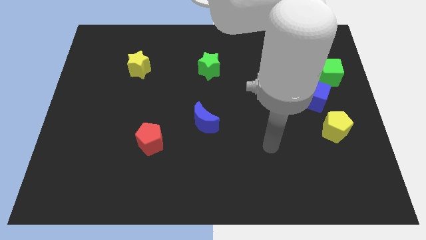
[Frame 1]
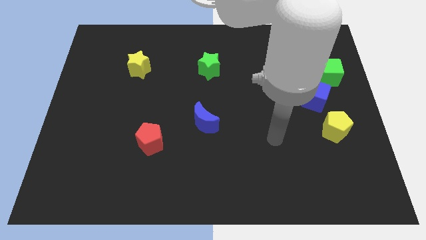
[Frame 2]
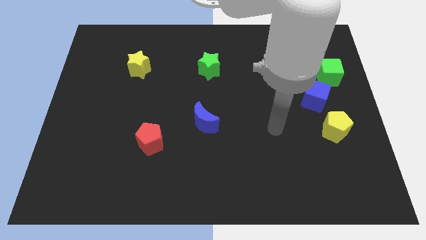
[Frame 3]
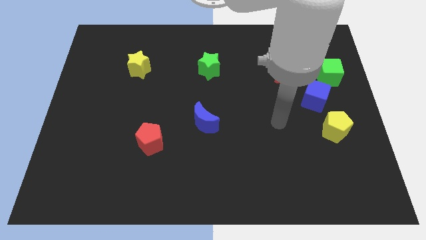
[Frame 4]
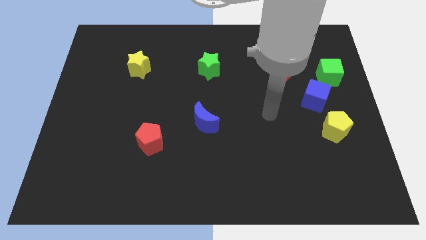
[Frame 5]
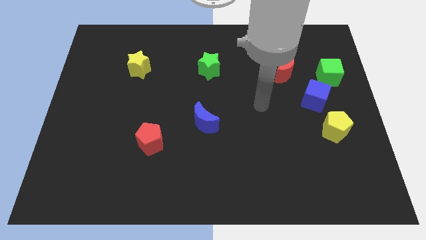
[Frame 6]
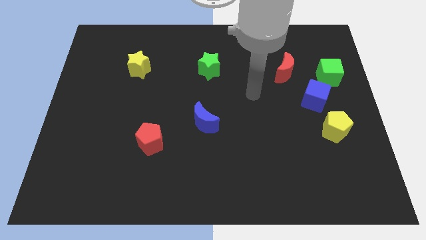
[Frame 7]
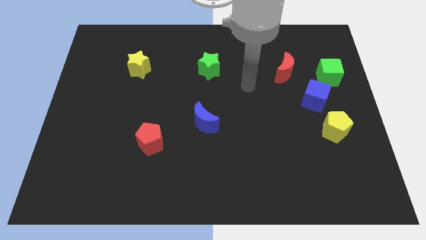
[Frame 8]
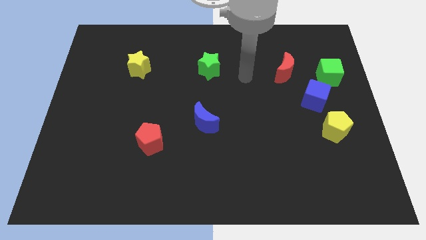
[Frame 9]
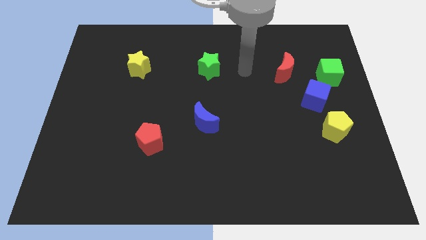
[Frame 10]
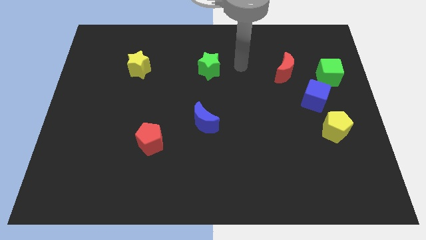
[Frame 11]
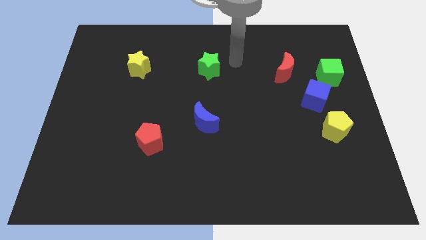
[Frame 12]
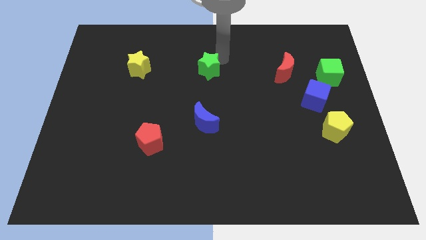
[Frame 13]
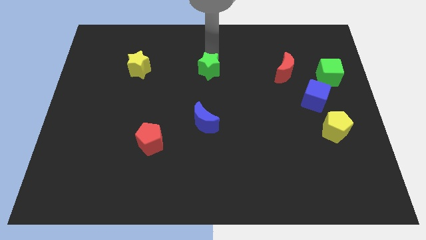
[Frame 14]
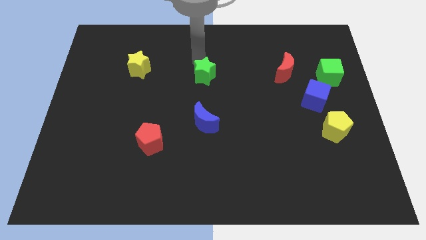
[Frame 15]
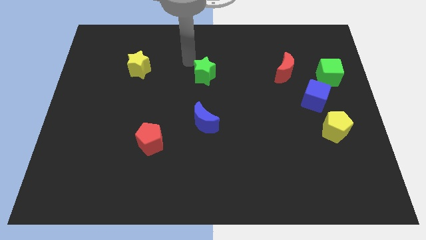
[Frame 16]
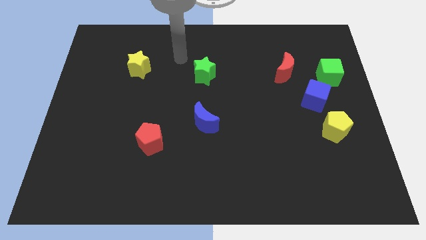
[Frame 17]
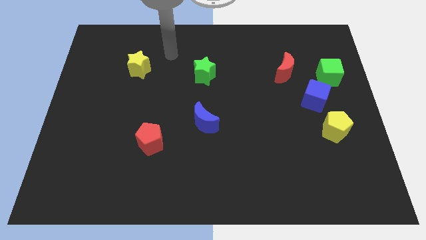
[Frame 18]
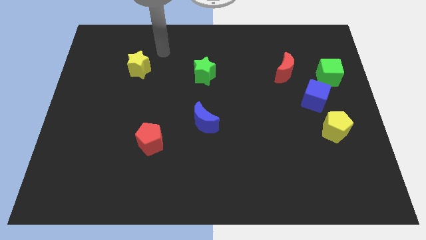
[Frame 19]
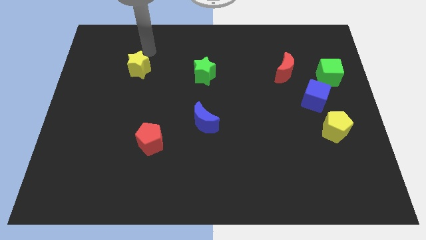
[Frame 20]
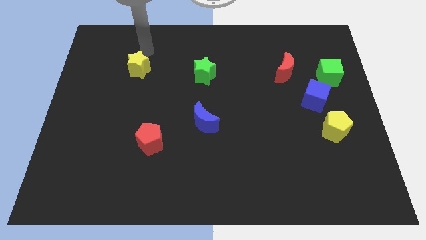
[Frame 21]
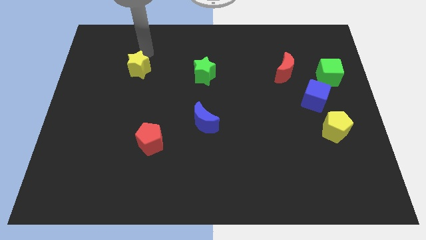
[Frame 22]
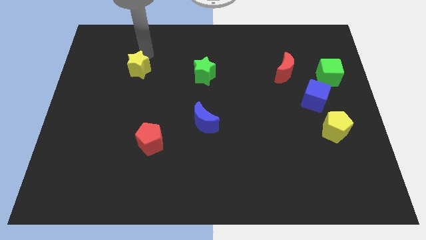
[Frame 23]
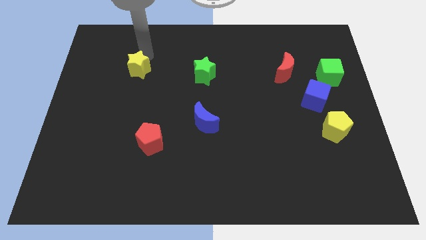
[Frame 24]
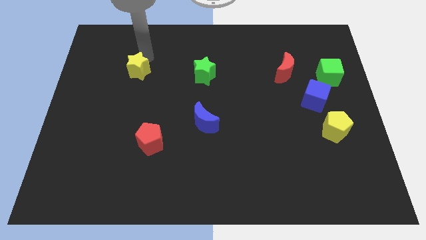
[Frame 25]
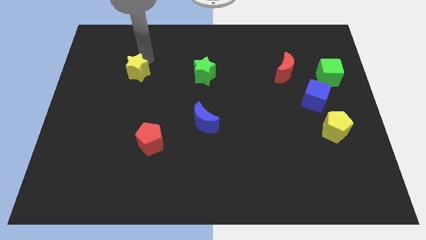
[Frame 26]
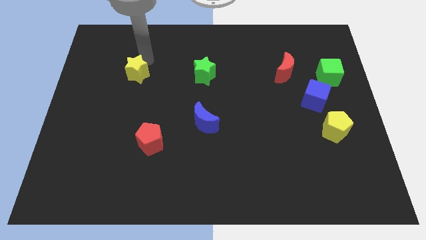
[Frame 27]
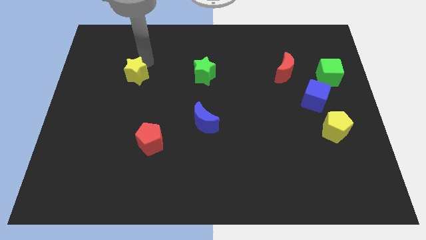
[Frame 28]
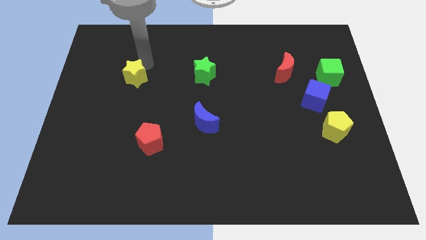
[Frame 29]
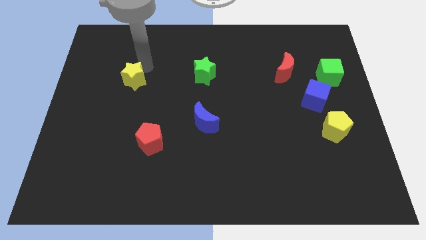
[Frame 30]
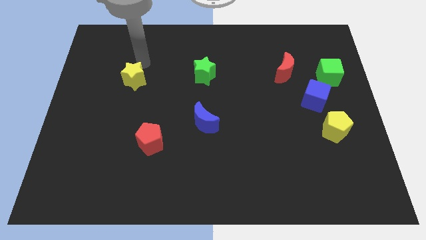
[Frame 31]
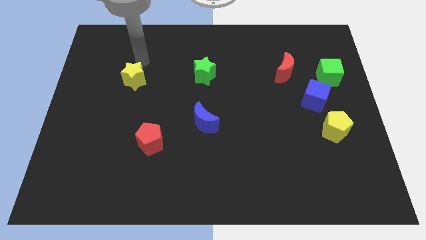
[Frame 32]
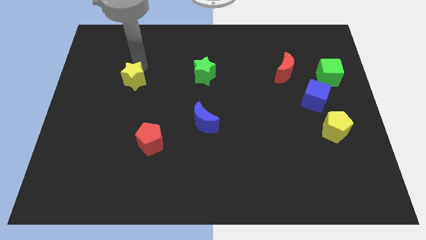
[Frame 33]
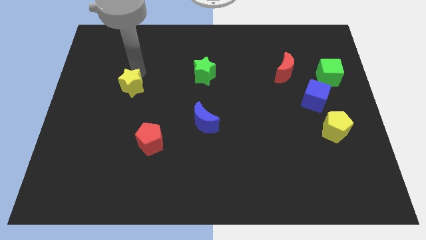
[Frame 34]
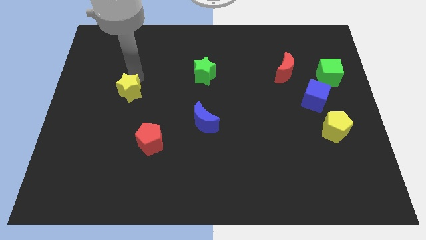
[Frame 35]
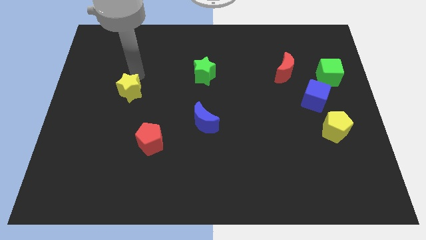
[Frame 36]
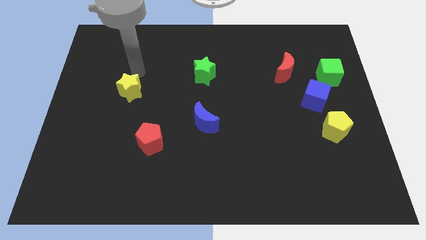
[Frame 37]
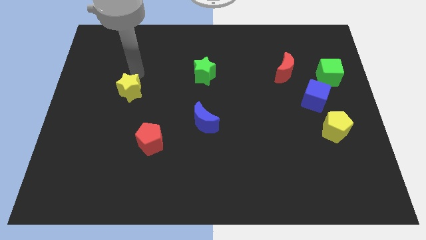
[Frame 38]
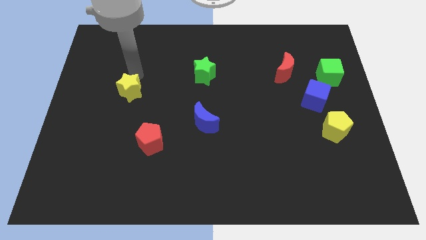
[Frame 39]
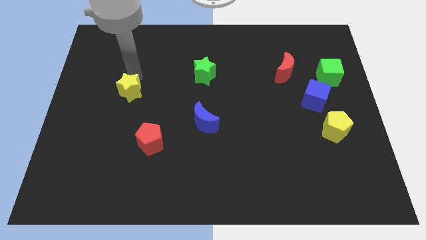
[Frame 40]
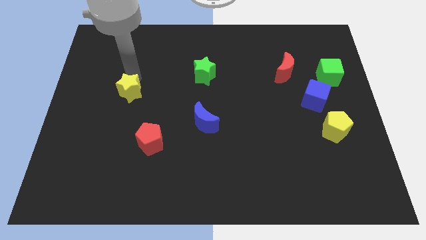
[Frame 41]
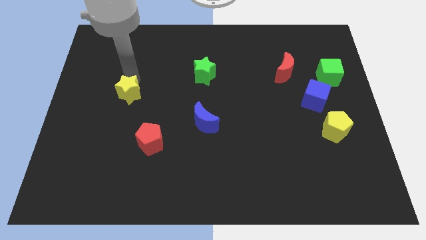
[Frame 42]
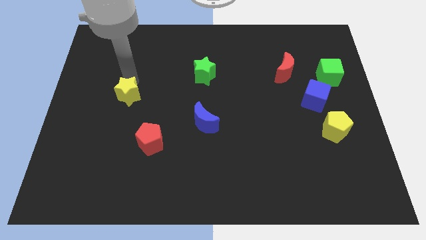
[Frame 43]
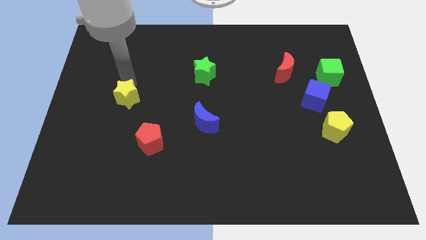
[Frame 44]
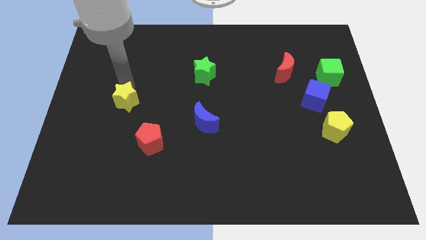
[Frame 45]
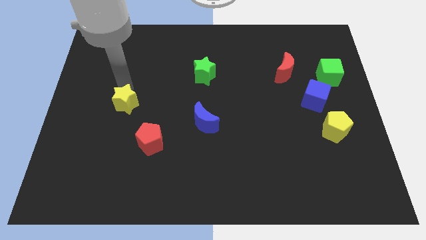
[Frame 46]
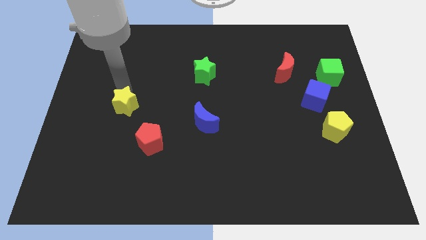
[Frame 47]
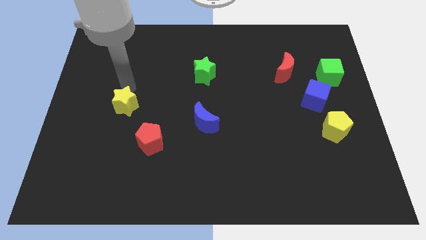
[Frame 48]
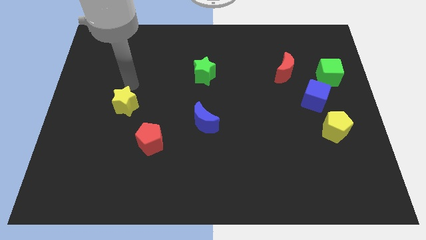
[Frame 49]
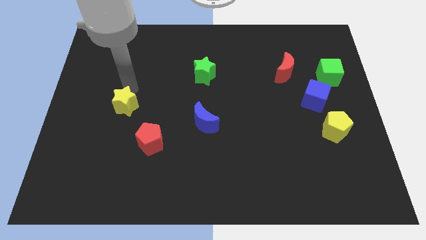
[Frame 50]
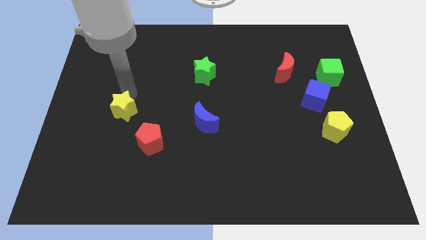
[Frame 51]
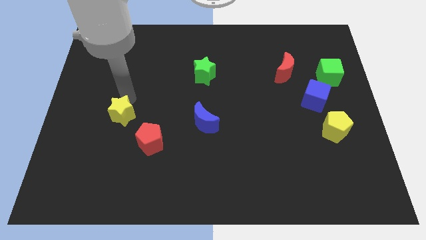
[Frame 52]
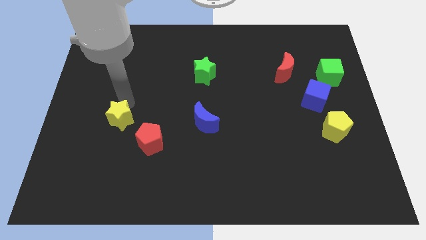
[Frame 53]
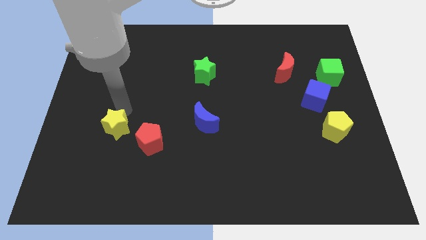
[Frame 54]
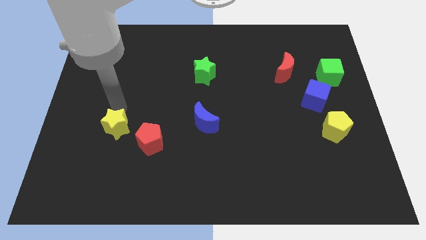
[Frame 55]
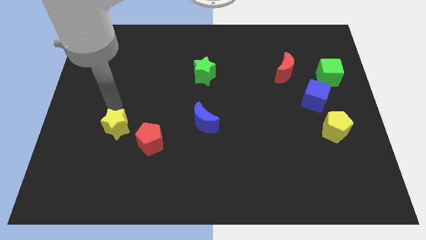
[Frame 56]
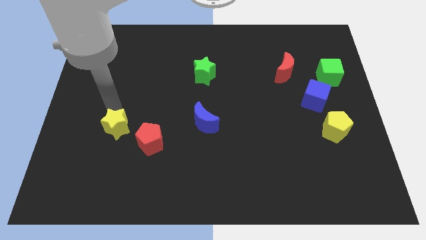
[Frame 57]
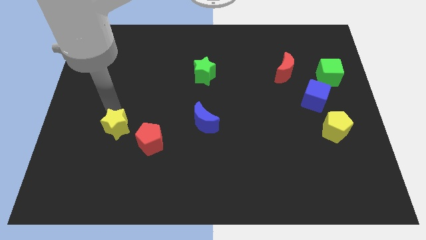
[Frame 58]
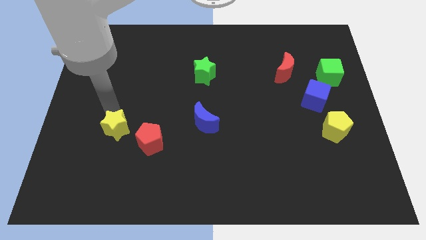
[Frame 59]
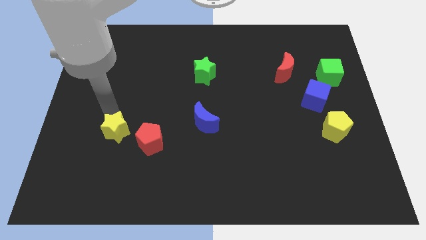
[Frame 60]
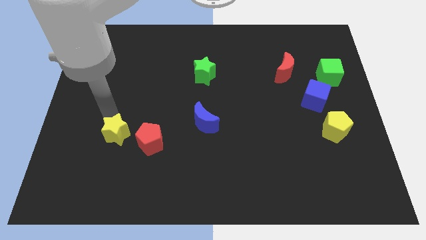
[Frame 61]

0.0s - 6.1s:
slide the yellow star downwards

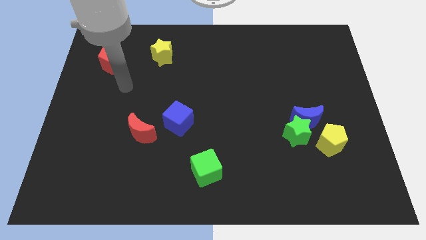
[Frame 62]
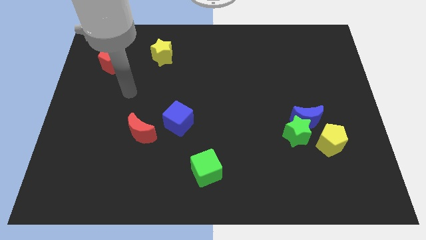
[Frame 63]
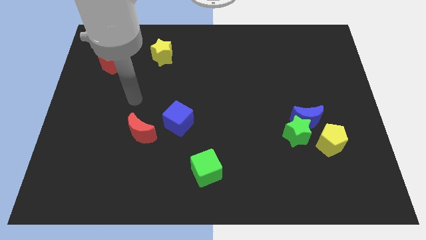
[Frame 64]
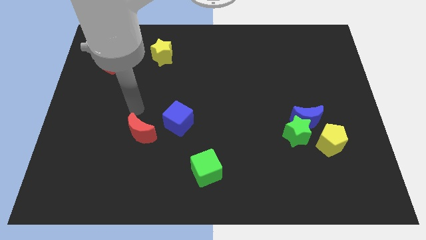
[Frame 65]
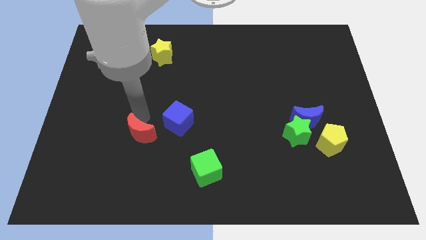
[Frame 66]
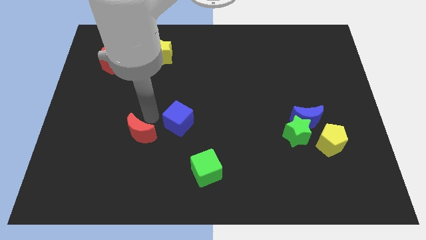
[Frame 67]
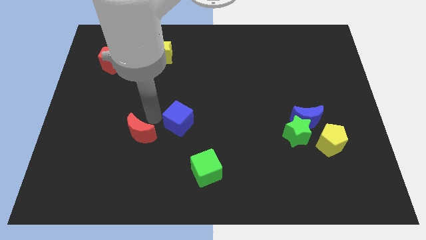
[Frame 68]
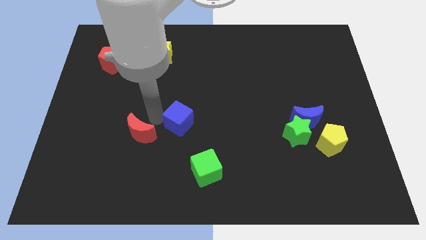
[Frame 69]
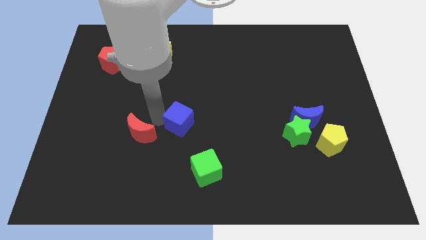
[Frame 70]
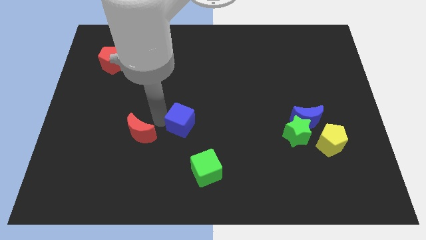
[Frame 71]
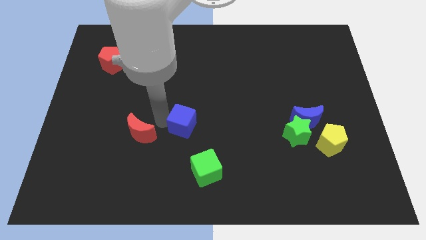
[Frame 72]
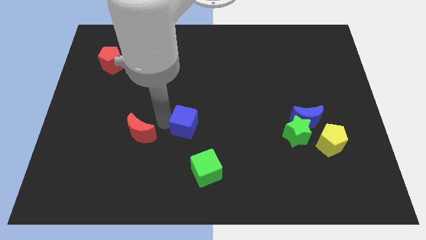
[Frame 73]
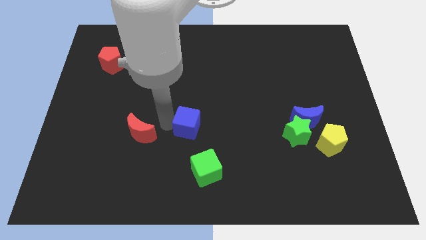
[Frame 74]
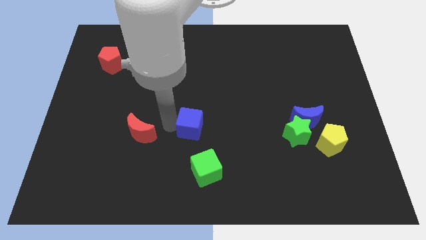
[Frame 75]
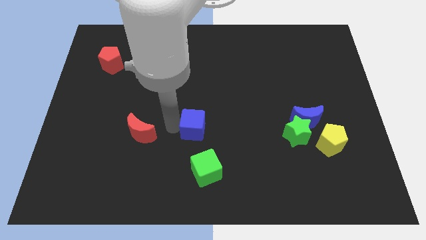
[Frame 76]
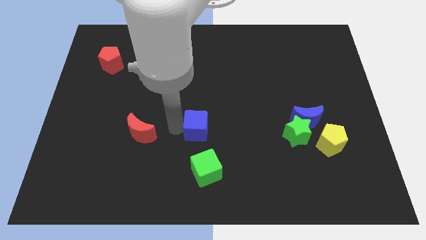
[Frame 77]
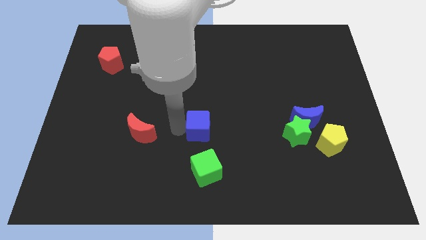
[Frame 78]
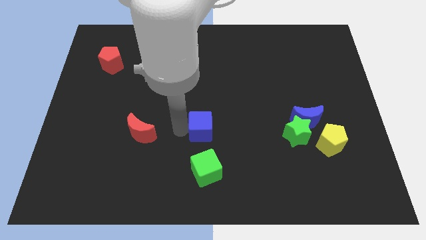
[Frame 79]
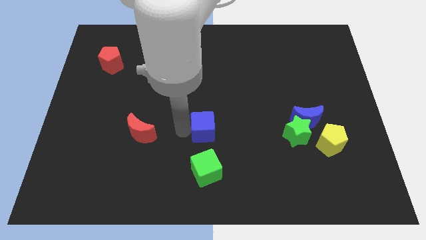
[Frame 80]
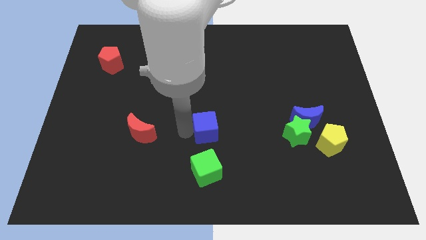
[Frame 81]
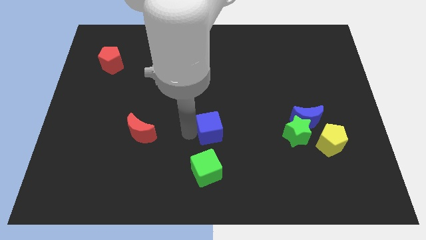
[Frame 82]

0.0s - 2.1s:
move the blue cube right somewhat
